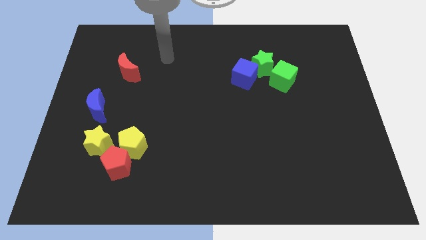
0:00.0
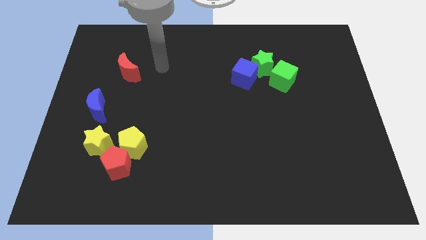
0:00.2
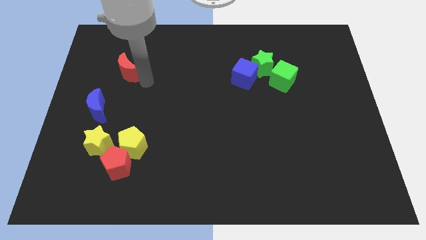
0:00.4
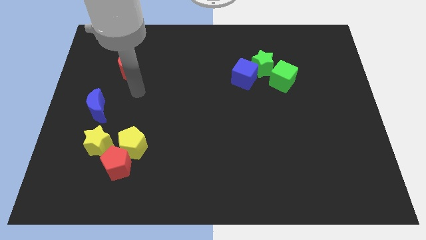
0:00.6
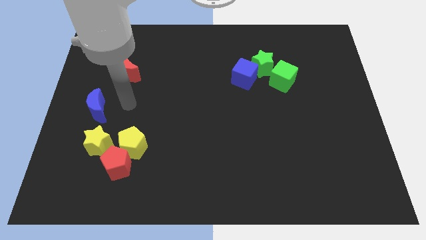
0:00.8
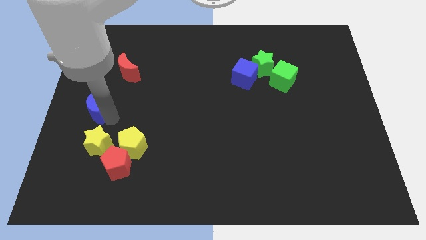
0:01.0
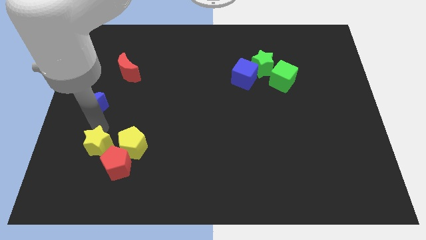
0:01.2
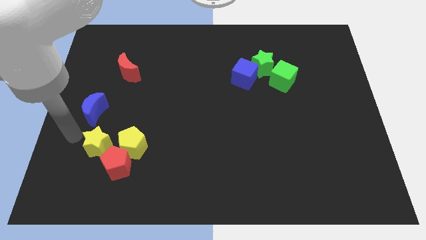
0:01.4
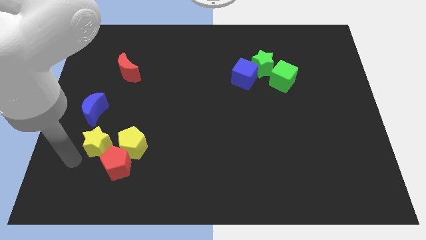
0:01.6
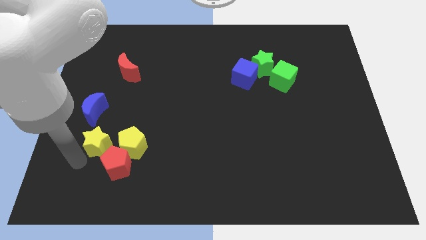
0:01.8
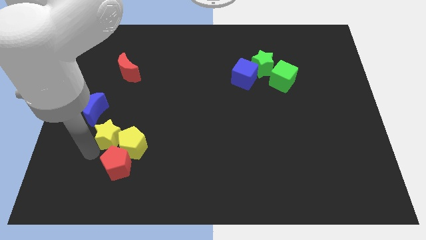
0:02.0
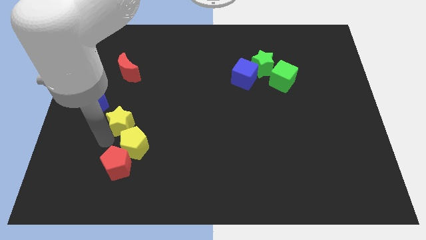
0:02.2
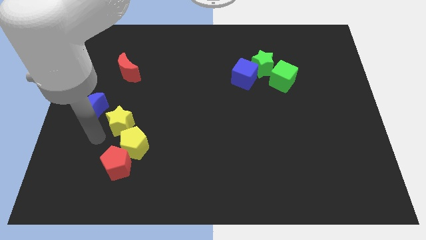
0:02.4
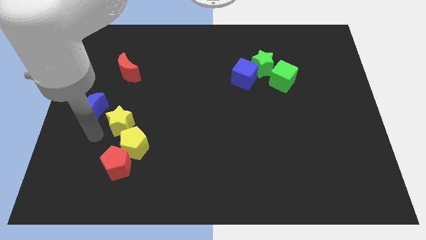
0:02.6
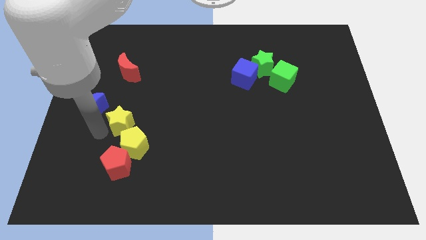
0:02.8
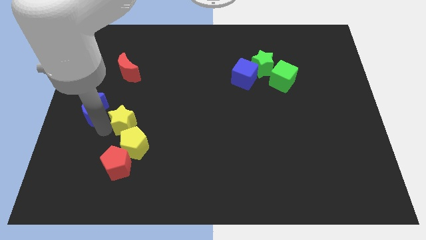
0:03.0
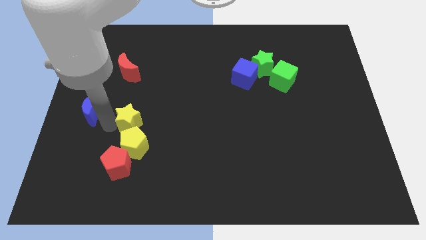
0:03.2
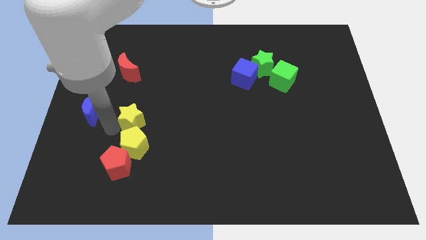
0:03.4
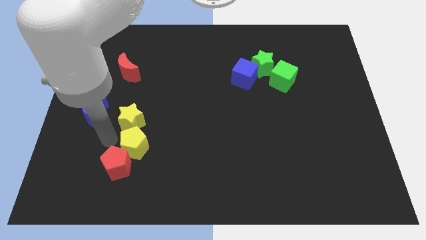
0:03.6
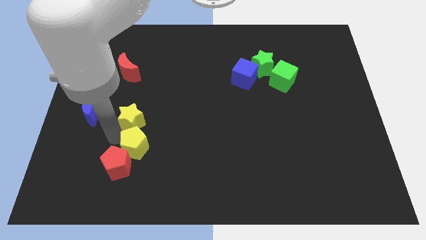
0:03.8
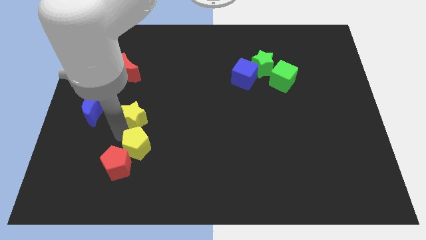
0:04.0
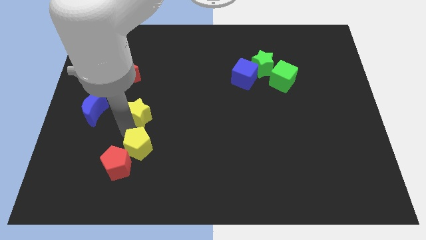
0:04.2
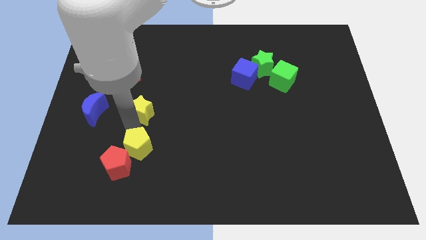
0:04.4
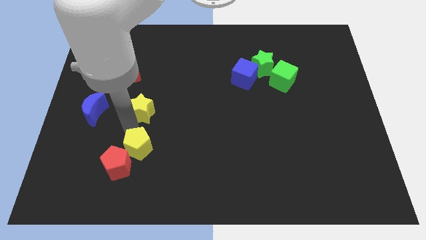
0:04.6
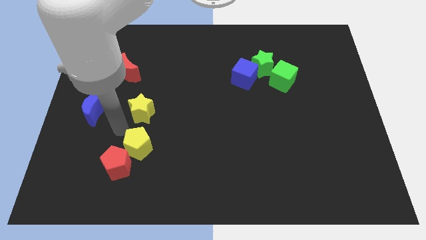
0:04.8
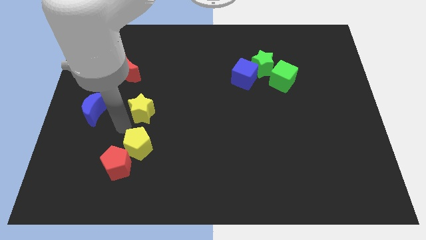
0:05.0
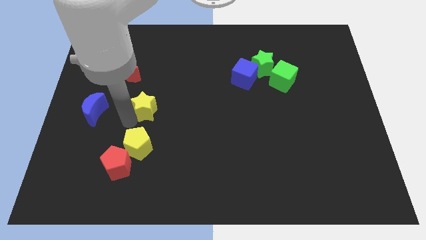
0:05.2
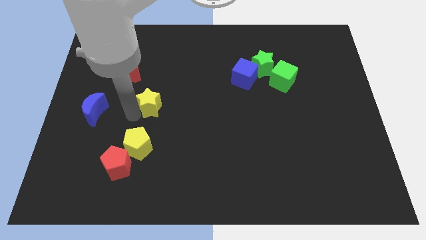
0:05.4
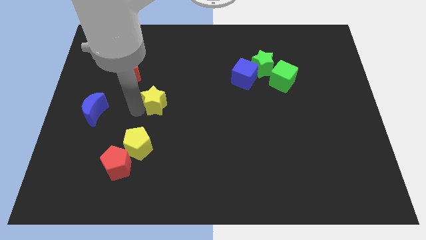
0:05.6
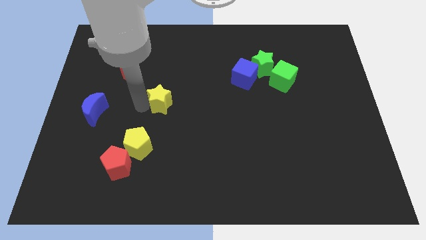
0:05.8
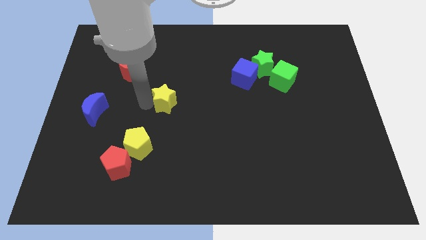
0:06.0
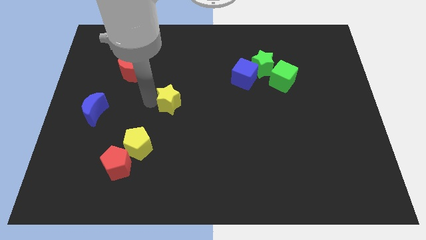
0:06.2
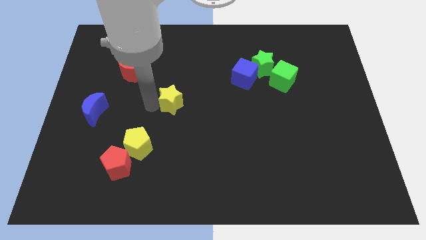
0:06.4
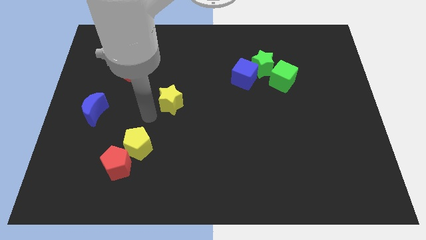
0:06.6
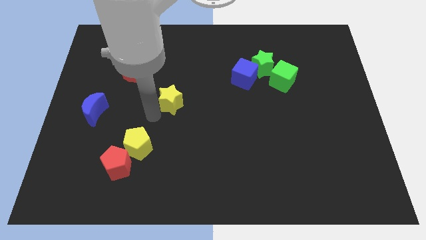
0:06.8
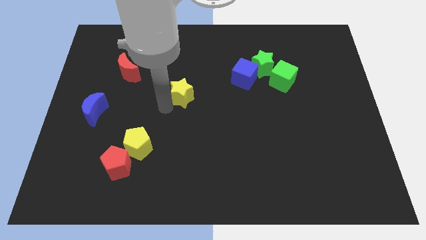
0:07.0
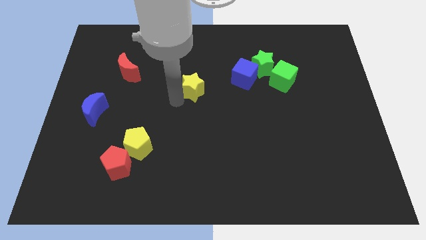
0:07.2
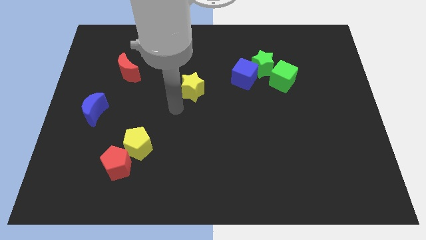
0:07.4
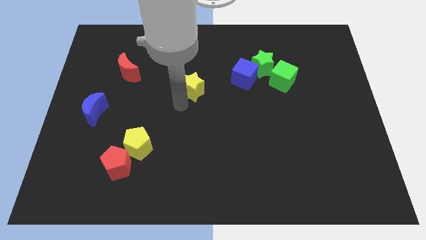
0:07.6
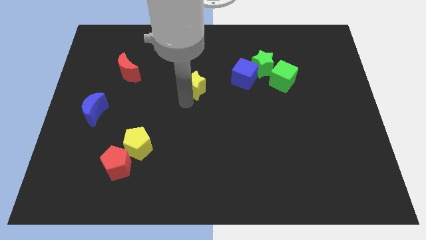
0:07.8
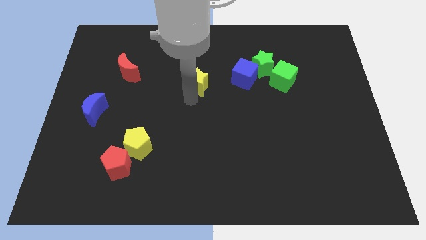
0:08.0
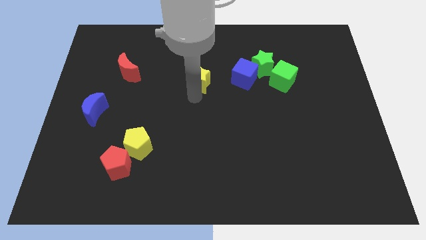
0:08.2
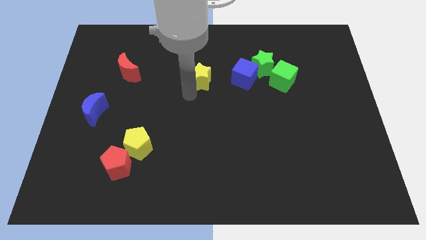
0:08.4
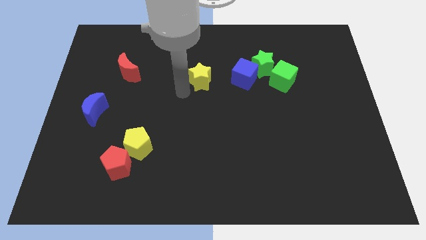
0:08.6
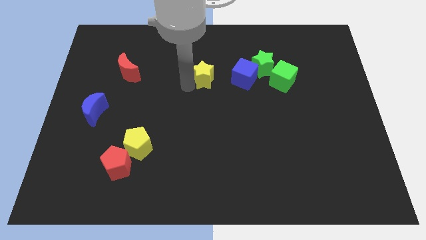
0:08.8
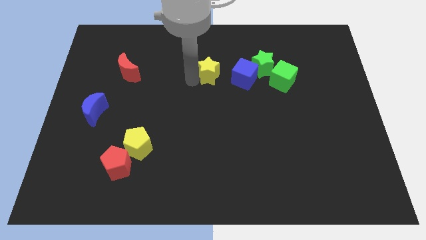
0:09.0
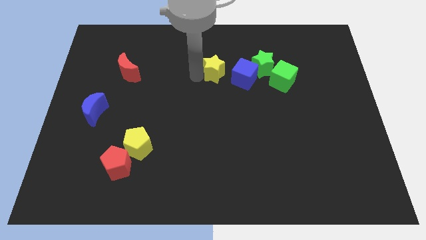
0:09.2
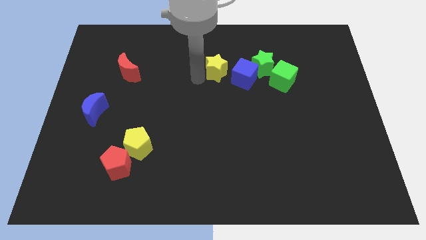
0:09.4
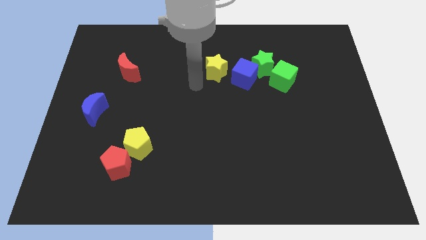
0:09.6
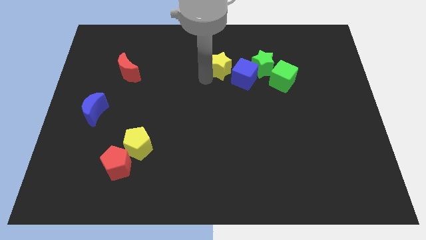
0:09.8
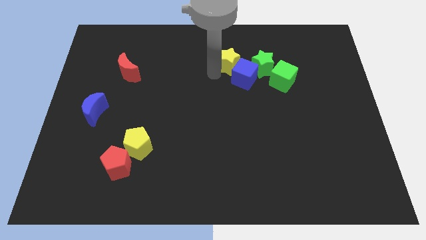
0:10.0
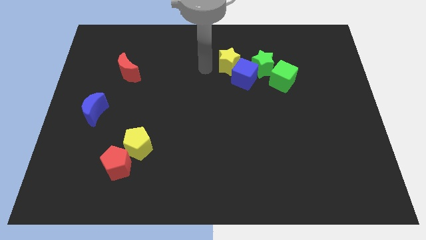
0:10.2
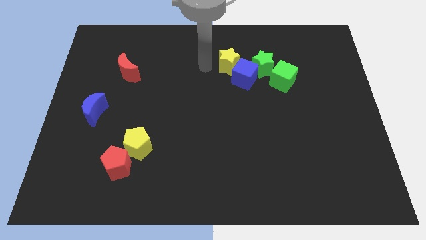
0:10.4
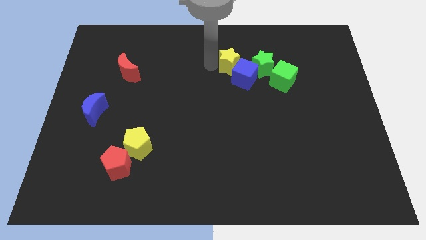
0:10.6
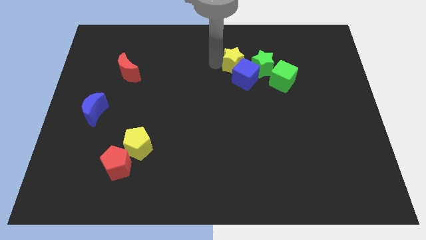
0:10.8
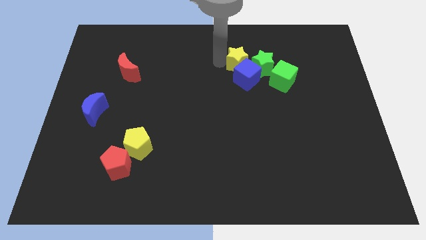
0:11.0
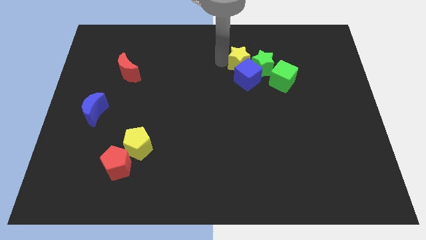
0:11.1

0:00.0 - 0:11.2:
move the yellow star towards the green star

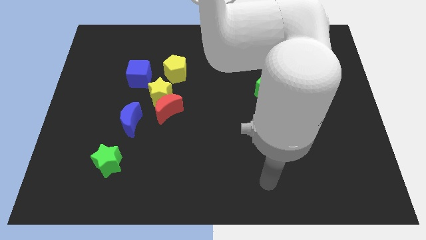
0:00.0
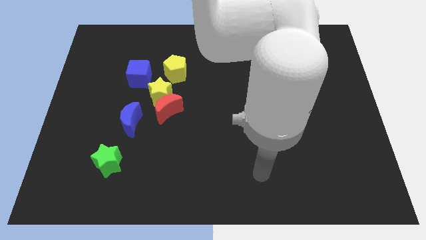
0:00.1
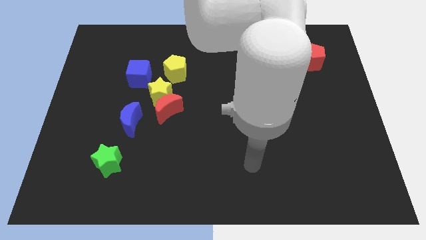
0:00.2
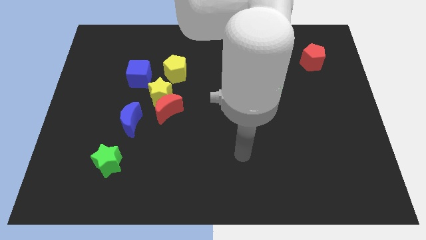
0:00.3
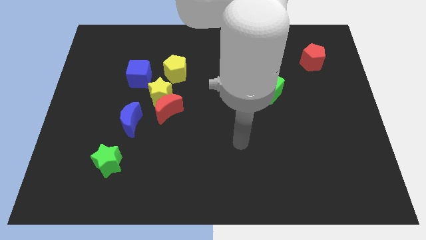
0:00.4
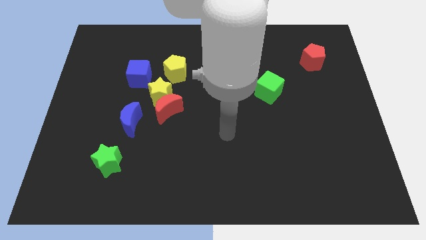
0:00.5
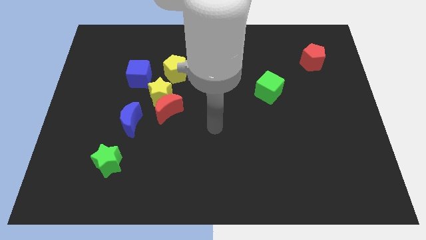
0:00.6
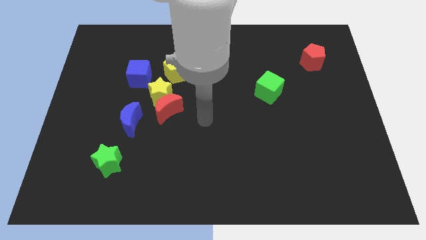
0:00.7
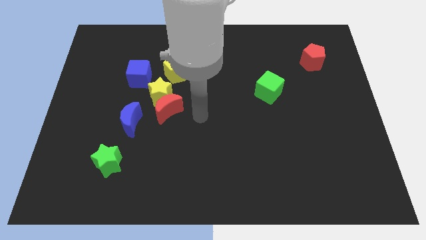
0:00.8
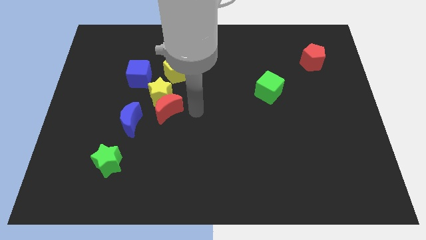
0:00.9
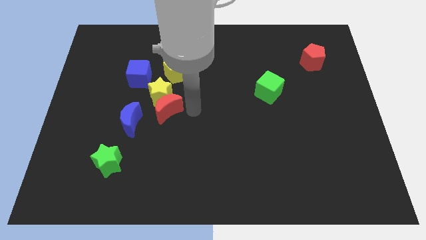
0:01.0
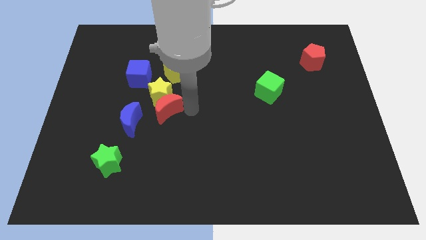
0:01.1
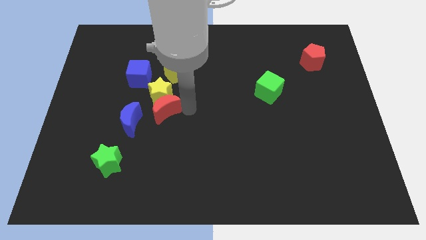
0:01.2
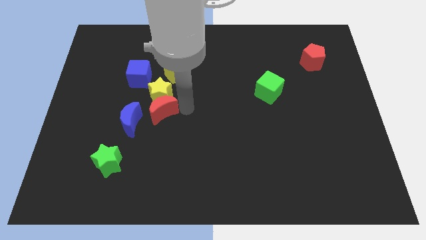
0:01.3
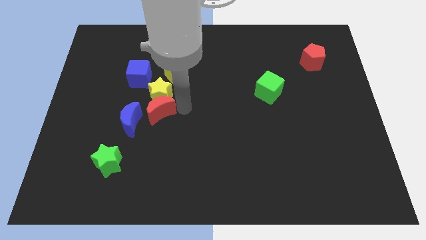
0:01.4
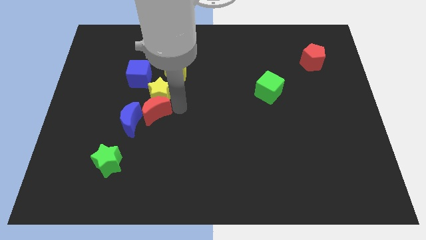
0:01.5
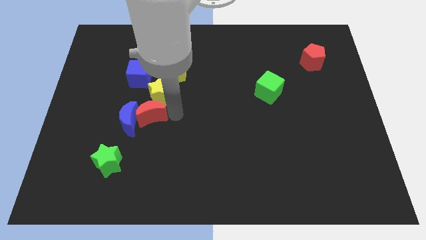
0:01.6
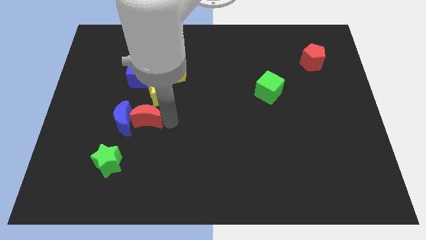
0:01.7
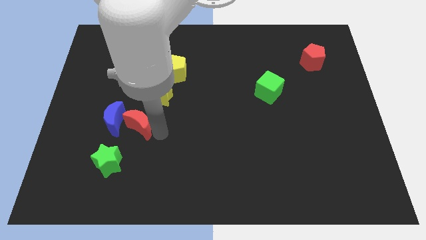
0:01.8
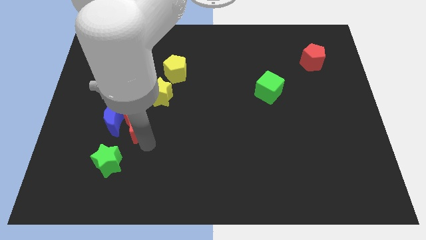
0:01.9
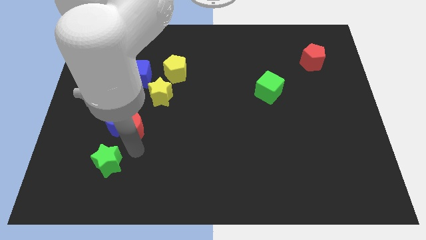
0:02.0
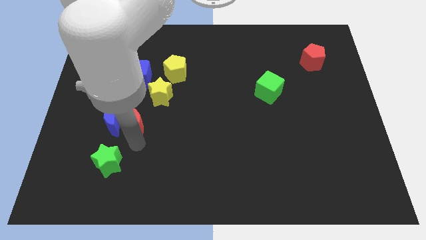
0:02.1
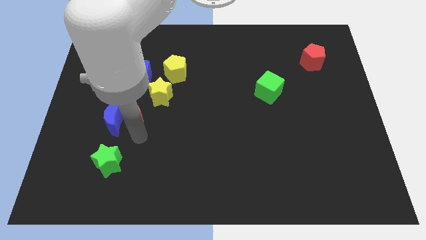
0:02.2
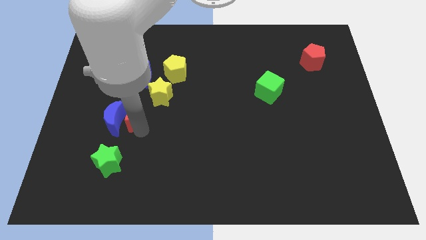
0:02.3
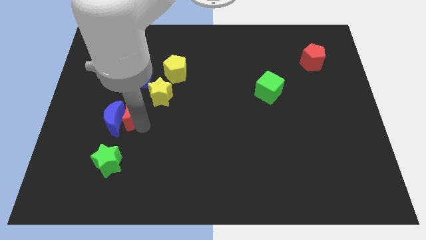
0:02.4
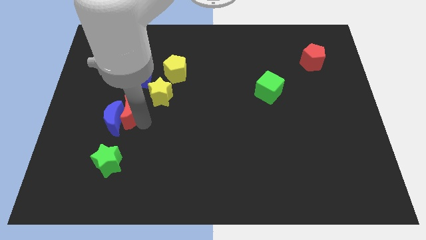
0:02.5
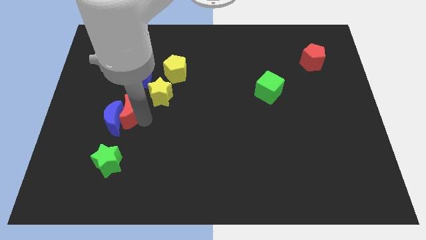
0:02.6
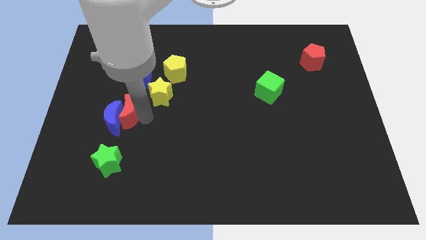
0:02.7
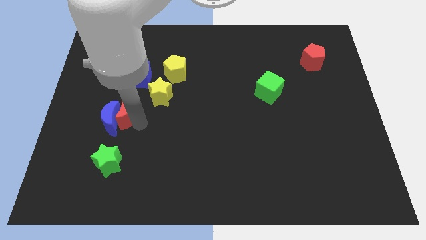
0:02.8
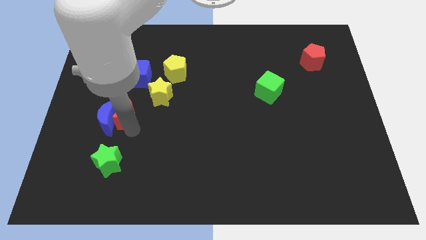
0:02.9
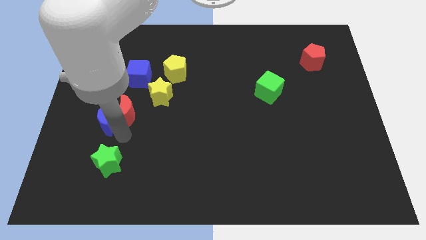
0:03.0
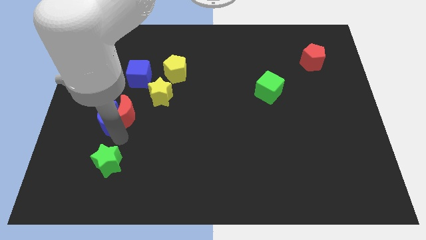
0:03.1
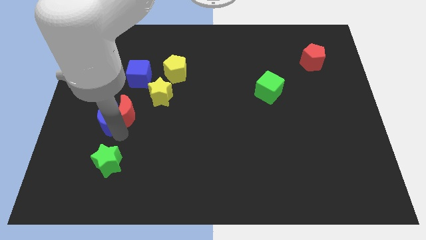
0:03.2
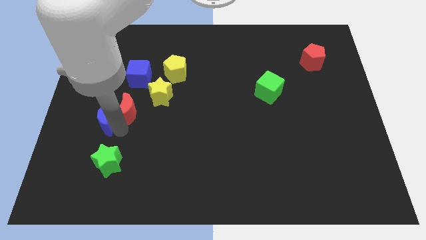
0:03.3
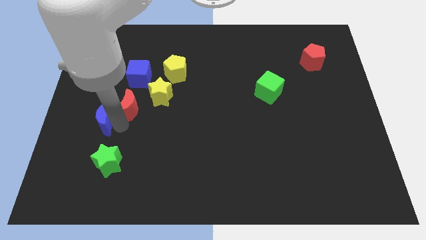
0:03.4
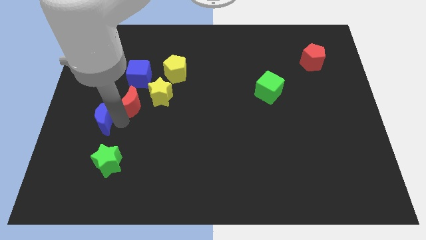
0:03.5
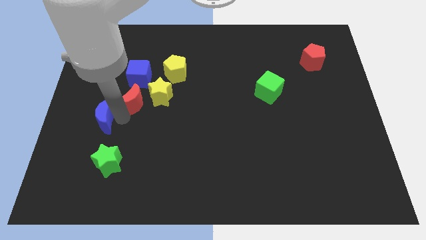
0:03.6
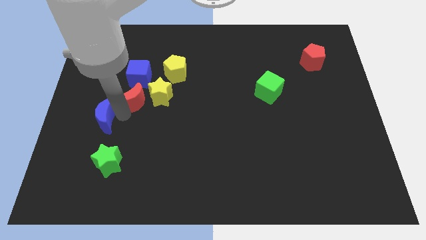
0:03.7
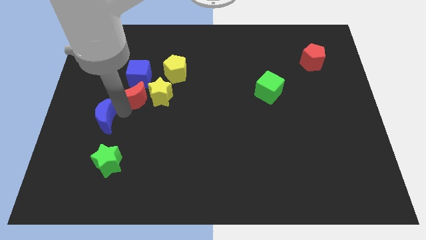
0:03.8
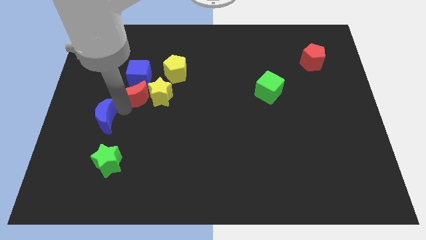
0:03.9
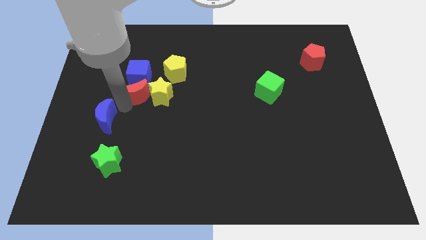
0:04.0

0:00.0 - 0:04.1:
push the red moon next to the blue cube
